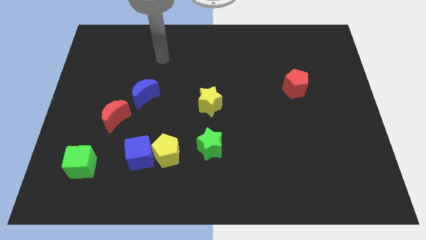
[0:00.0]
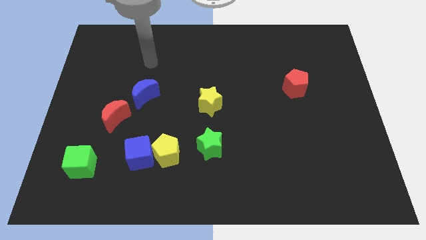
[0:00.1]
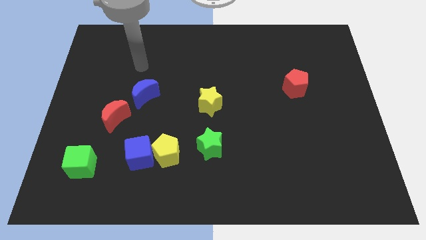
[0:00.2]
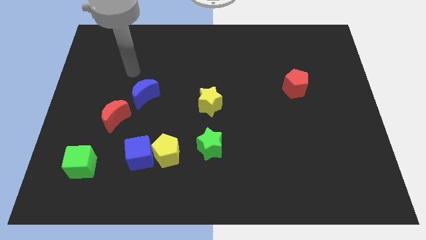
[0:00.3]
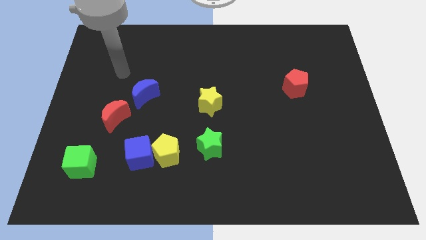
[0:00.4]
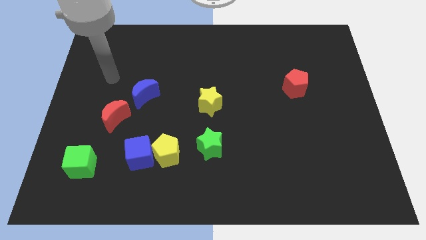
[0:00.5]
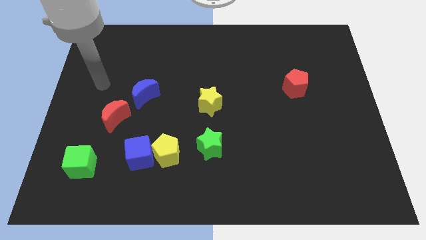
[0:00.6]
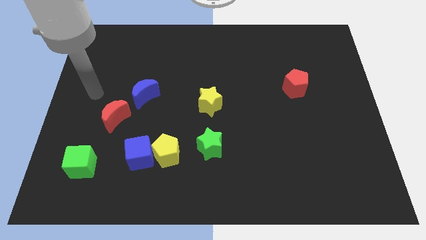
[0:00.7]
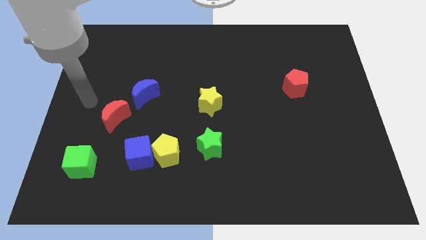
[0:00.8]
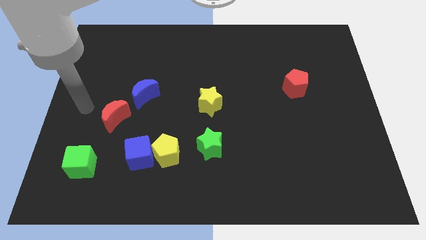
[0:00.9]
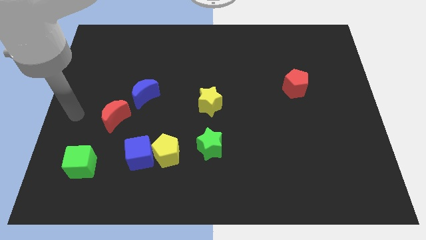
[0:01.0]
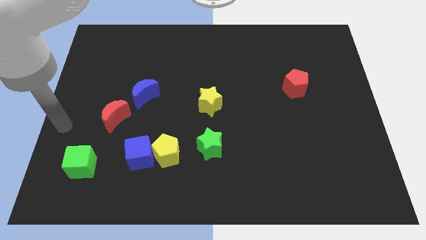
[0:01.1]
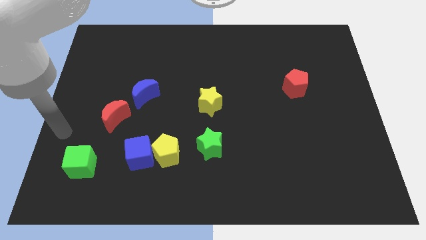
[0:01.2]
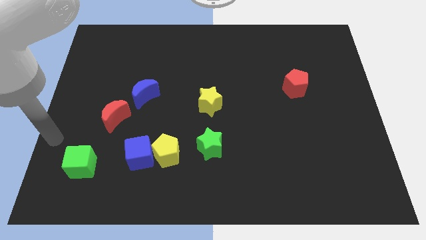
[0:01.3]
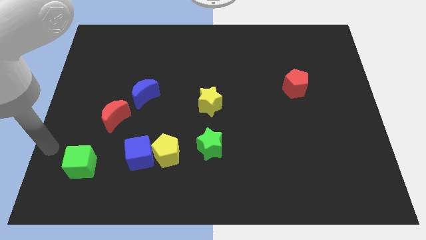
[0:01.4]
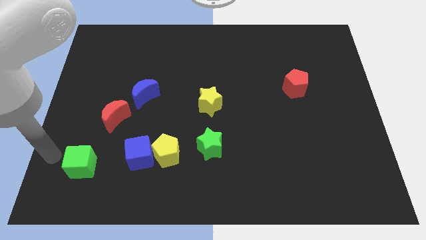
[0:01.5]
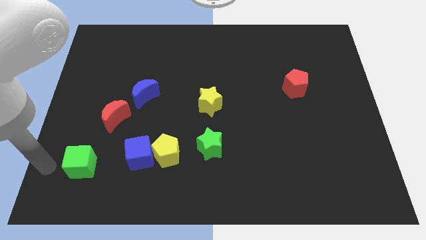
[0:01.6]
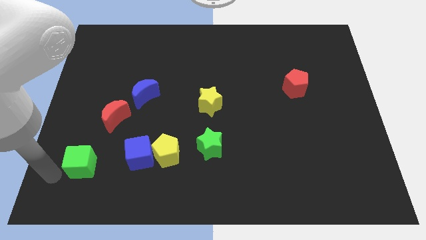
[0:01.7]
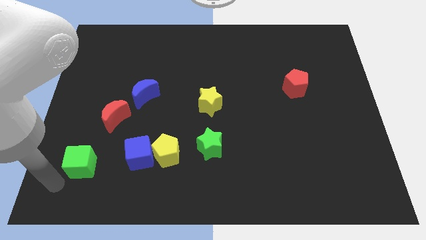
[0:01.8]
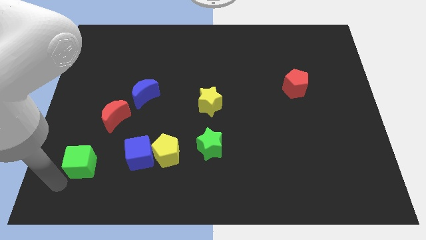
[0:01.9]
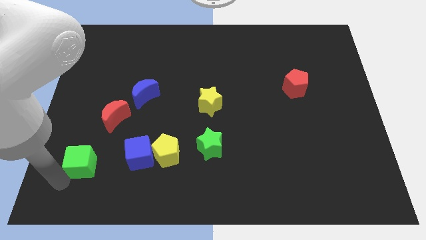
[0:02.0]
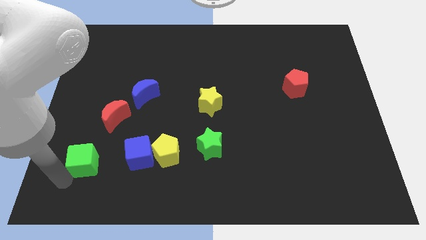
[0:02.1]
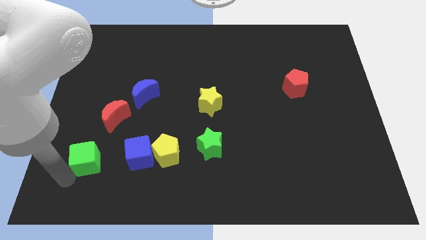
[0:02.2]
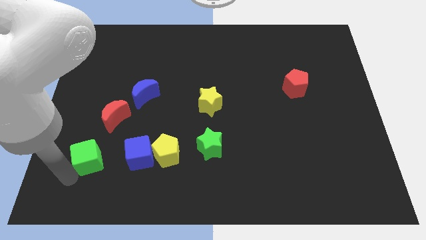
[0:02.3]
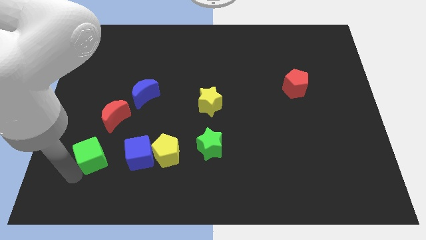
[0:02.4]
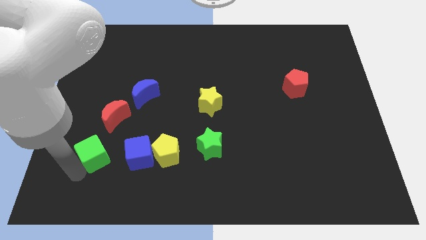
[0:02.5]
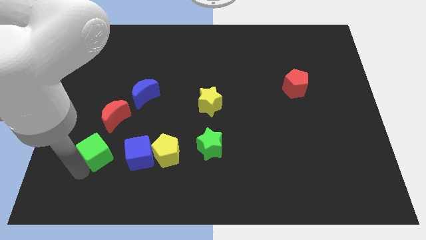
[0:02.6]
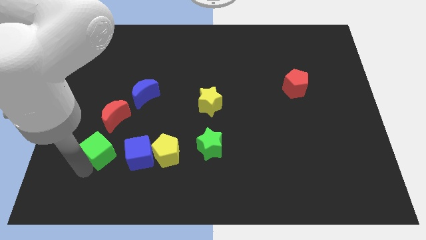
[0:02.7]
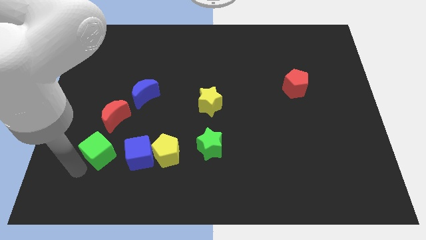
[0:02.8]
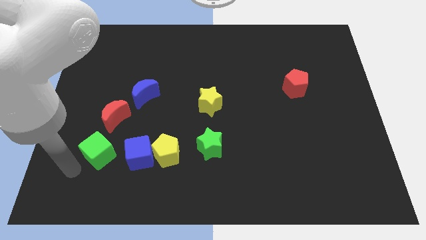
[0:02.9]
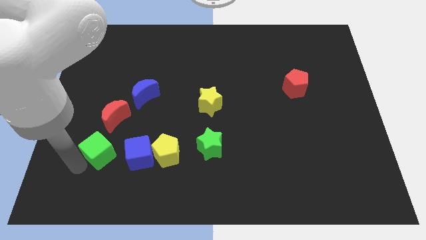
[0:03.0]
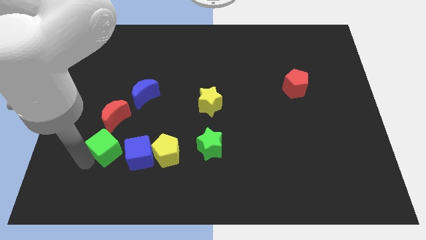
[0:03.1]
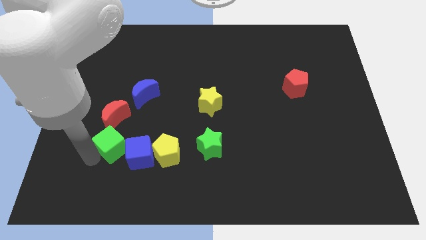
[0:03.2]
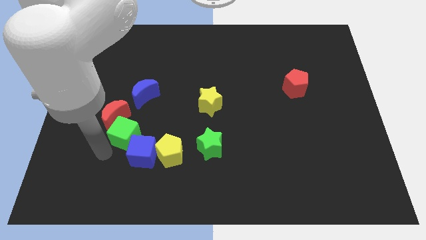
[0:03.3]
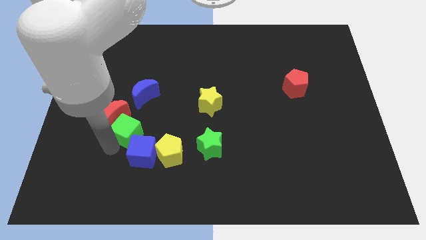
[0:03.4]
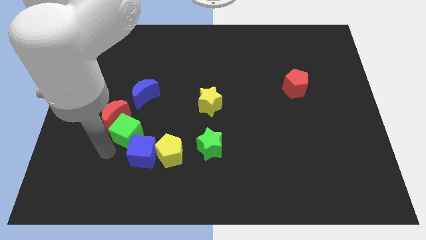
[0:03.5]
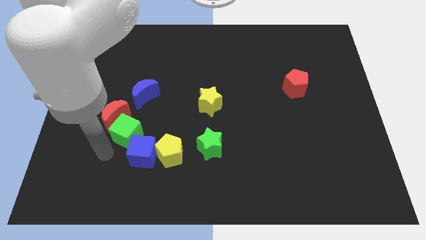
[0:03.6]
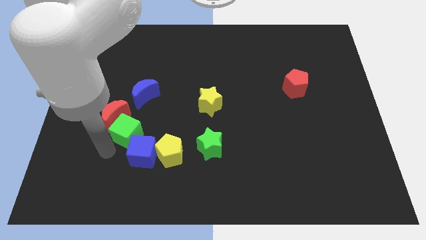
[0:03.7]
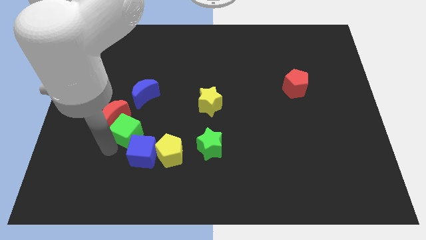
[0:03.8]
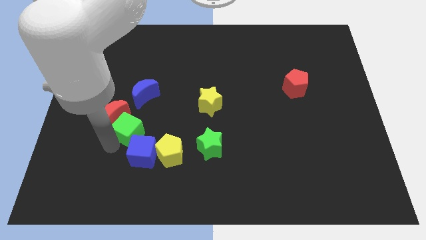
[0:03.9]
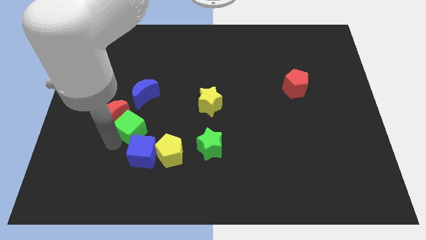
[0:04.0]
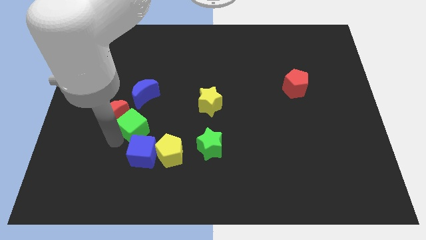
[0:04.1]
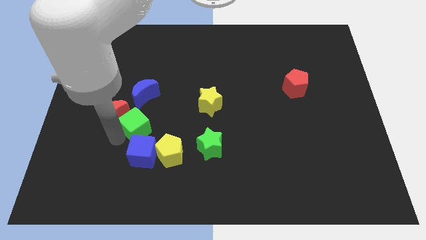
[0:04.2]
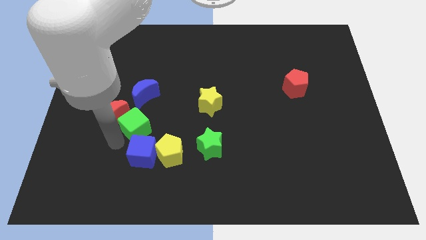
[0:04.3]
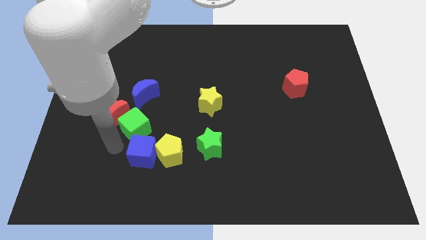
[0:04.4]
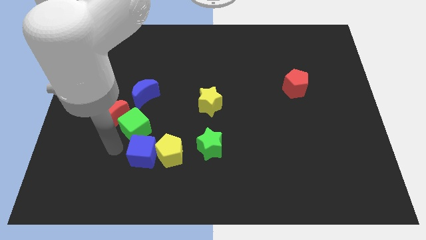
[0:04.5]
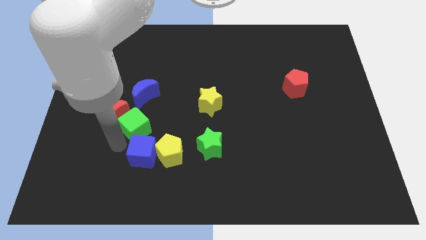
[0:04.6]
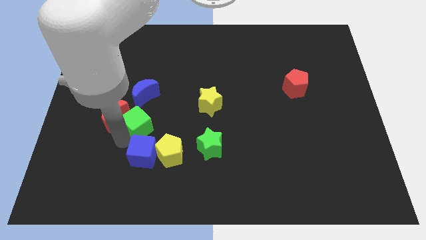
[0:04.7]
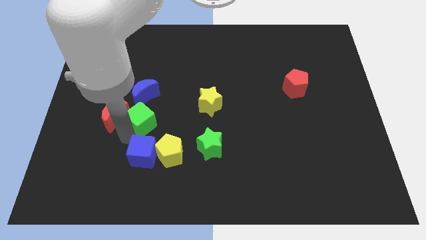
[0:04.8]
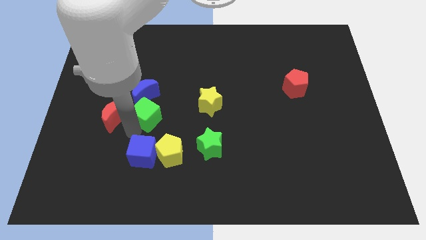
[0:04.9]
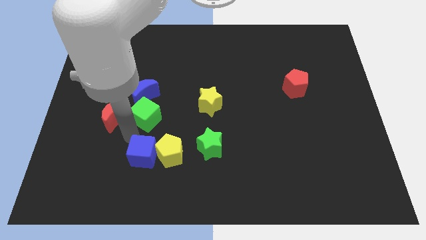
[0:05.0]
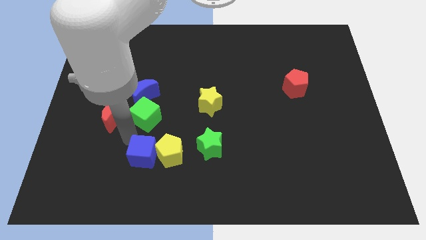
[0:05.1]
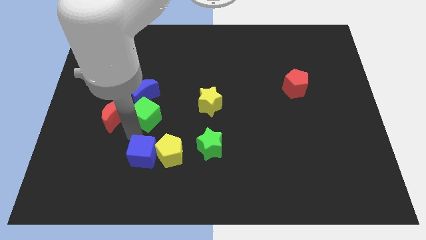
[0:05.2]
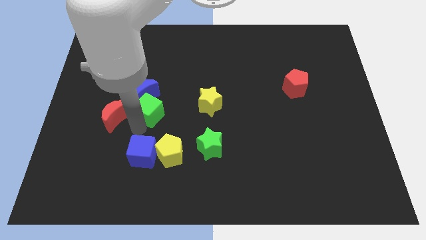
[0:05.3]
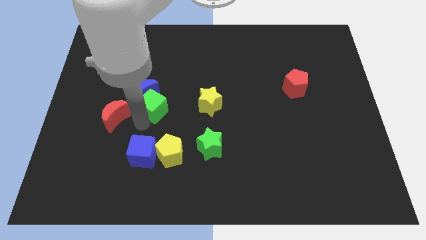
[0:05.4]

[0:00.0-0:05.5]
move the green cube upwards and to the right

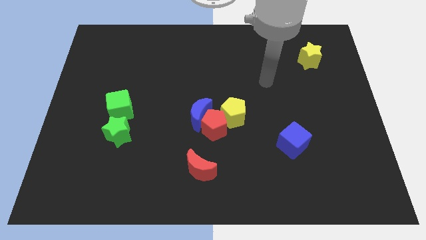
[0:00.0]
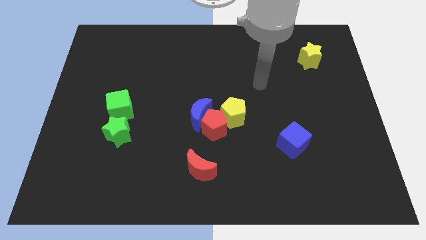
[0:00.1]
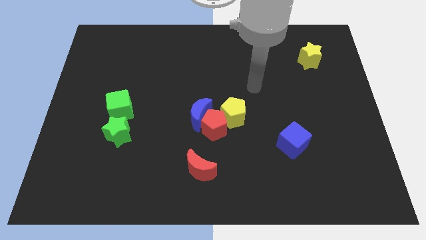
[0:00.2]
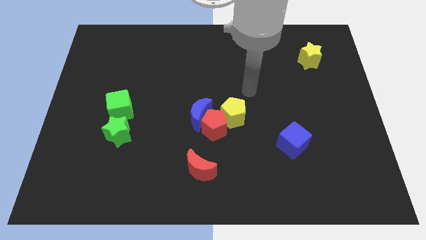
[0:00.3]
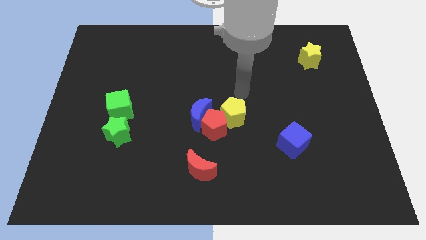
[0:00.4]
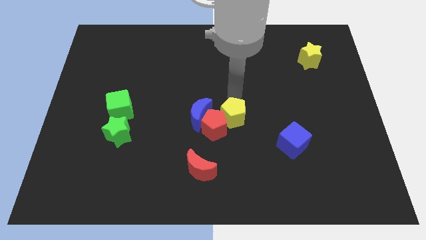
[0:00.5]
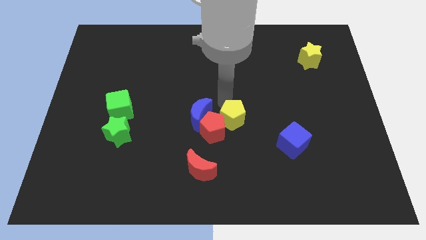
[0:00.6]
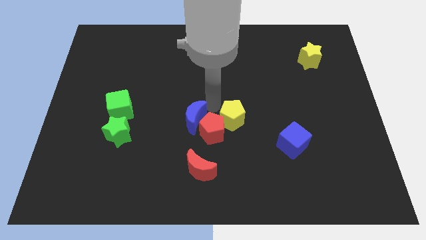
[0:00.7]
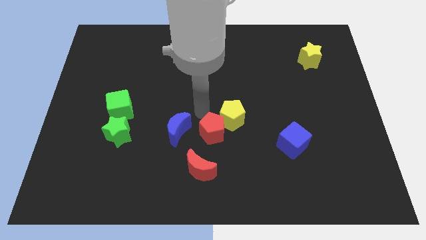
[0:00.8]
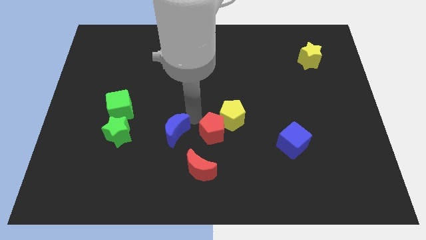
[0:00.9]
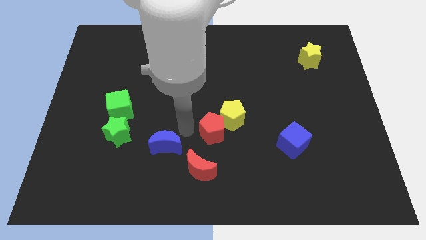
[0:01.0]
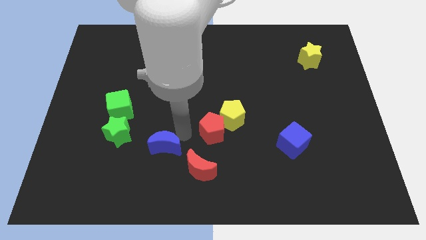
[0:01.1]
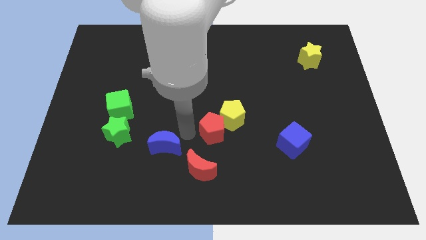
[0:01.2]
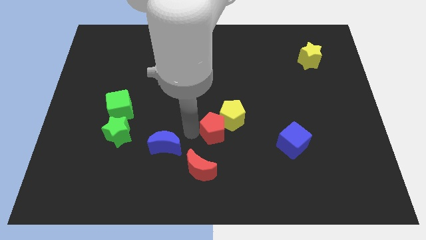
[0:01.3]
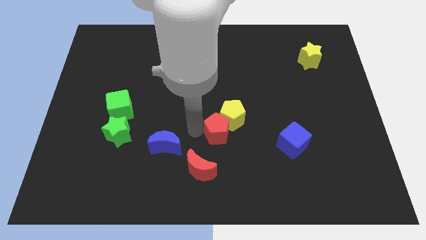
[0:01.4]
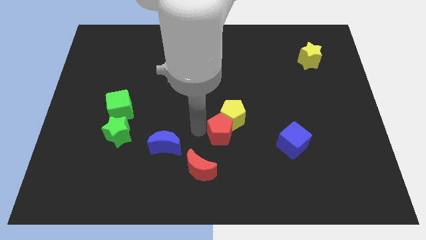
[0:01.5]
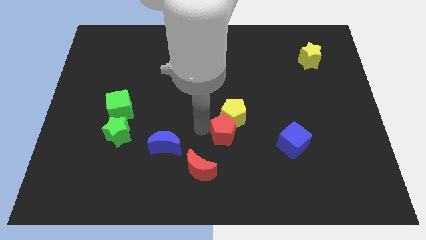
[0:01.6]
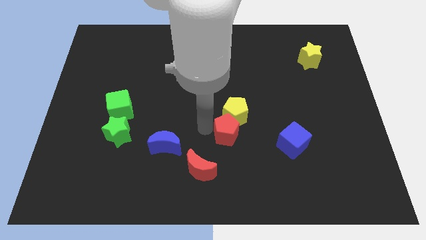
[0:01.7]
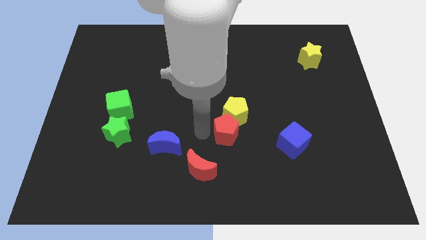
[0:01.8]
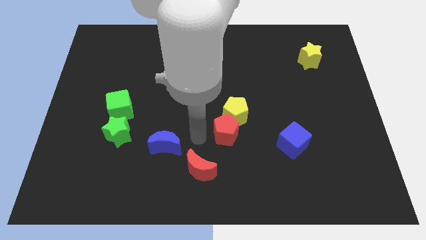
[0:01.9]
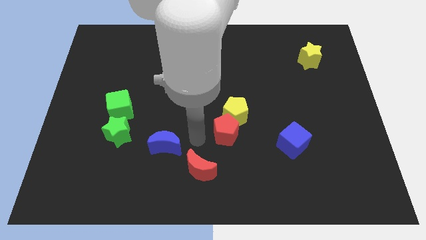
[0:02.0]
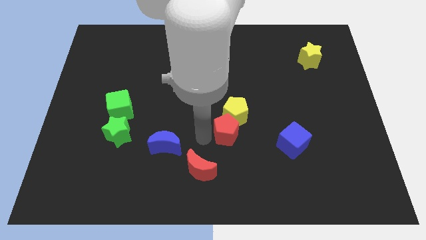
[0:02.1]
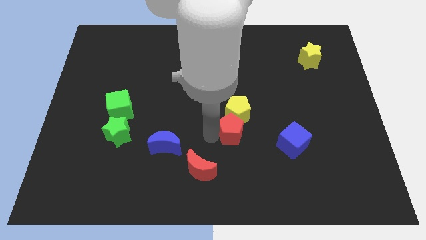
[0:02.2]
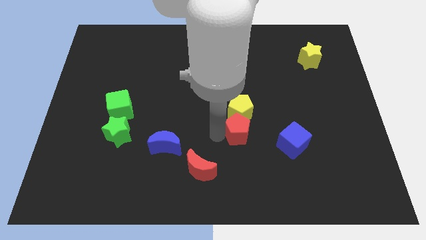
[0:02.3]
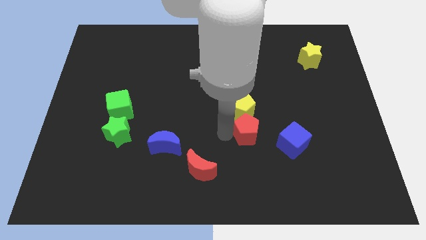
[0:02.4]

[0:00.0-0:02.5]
move the red pentagon to the right a bit
